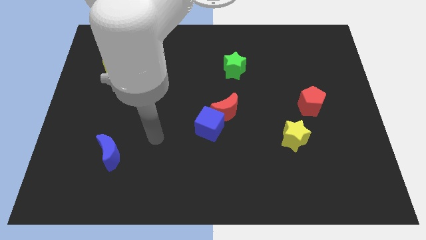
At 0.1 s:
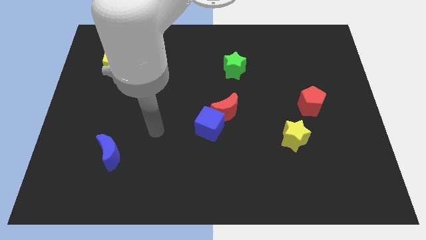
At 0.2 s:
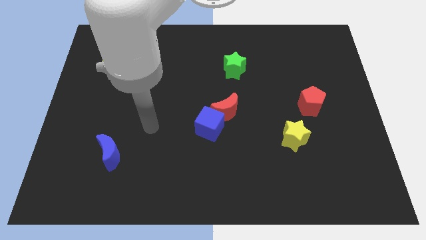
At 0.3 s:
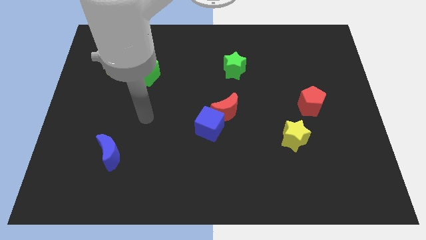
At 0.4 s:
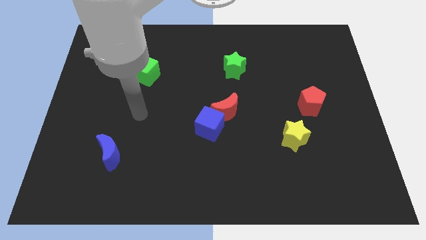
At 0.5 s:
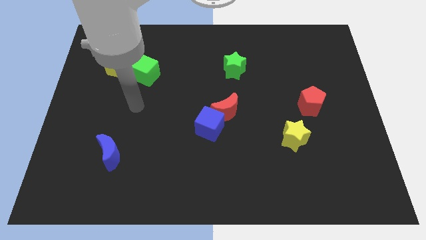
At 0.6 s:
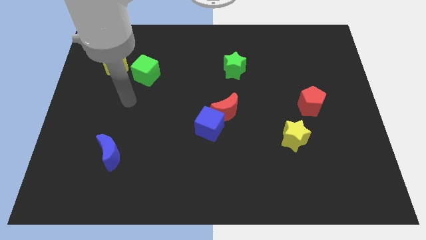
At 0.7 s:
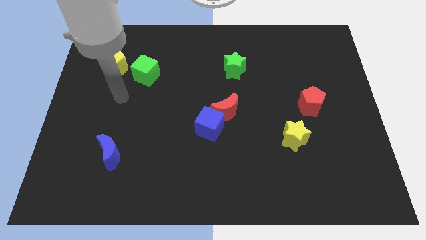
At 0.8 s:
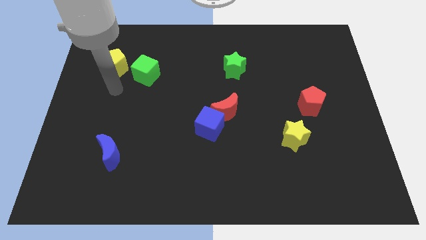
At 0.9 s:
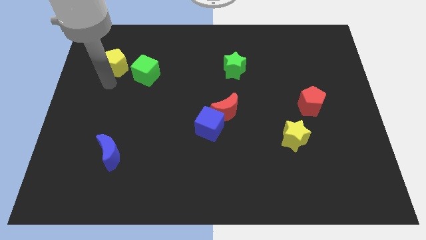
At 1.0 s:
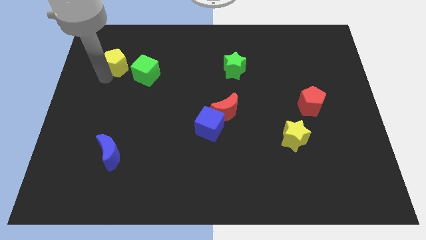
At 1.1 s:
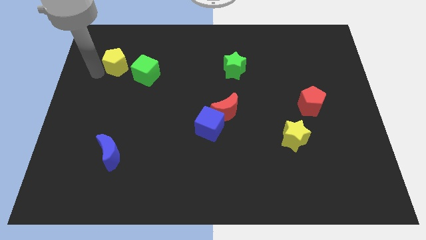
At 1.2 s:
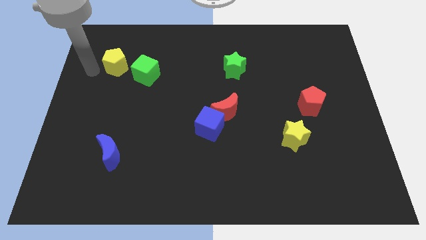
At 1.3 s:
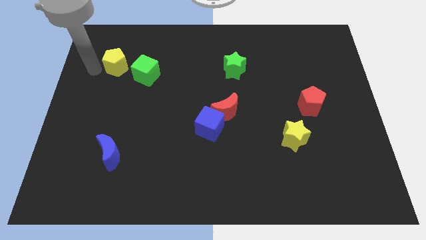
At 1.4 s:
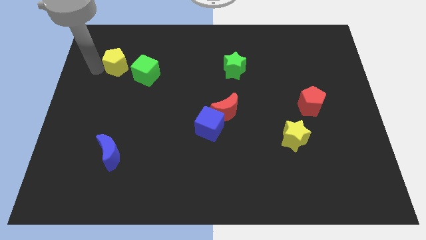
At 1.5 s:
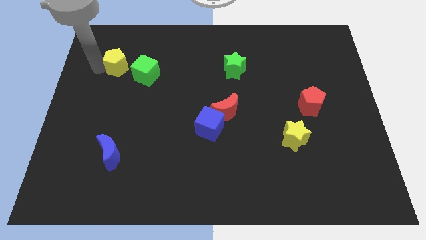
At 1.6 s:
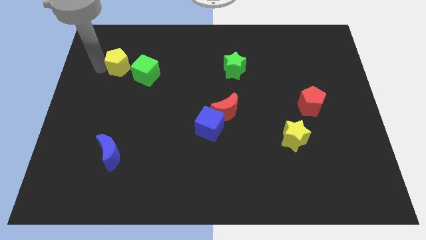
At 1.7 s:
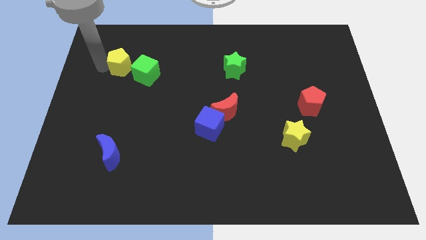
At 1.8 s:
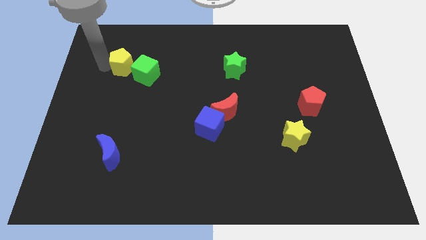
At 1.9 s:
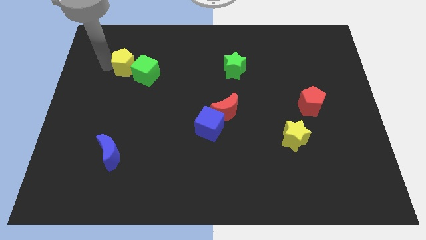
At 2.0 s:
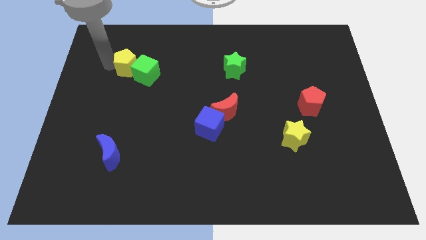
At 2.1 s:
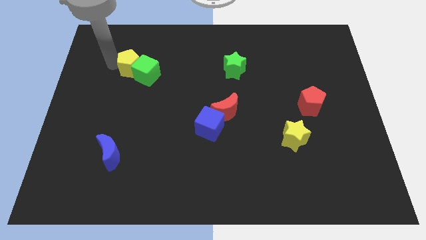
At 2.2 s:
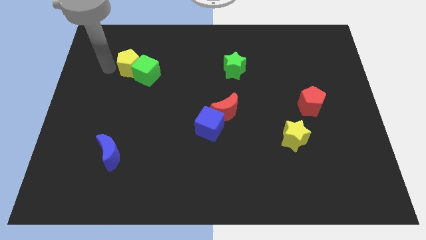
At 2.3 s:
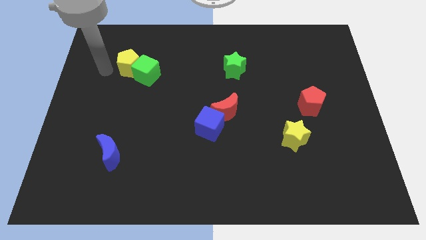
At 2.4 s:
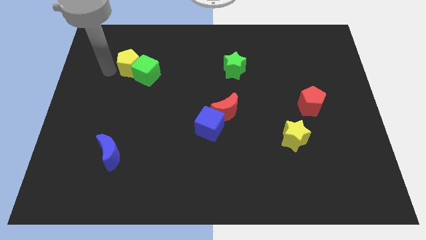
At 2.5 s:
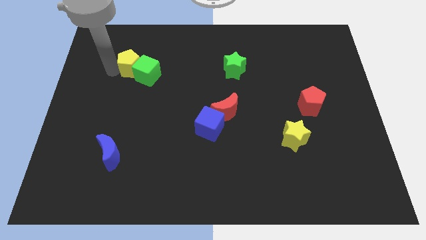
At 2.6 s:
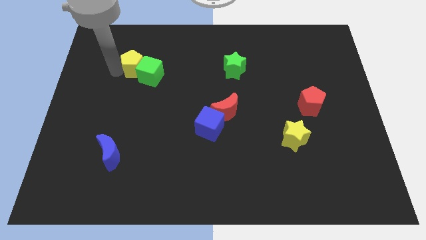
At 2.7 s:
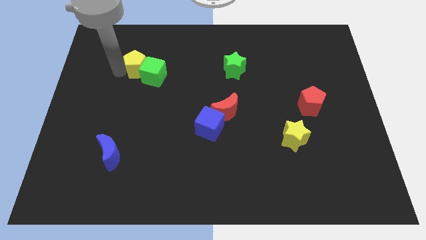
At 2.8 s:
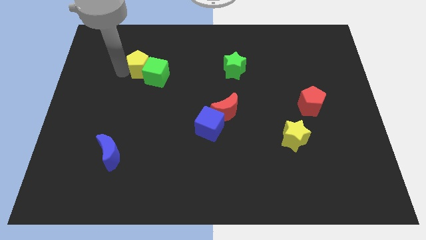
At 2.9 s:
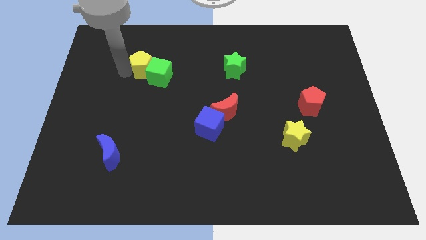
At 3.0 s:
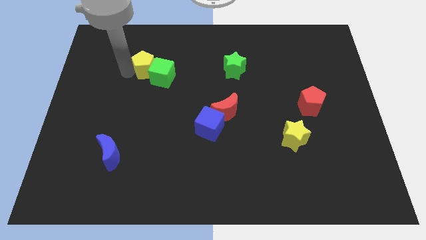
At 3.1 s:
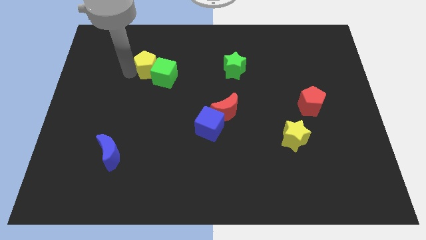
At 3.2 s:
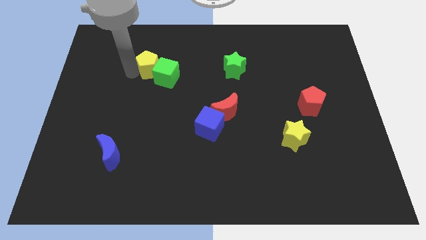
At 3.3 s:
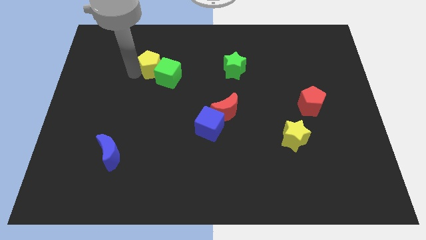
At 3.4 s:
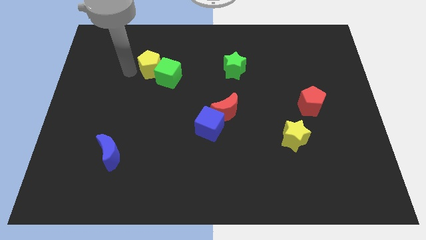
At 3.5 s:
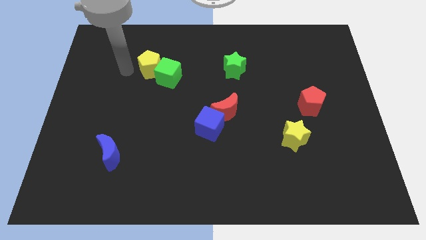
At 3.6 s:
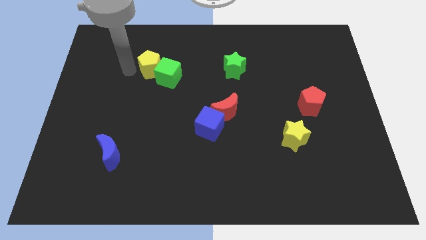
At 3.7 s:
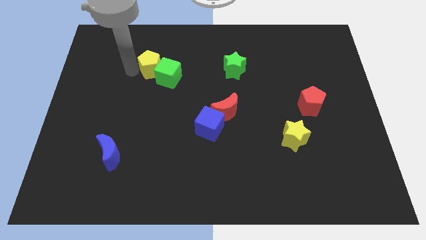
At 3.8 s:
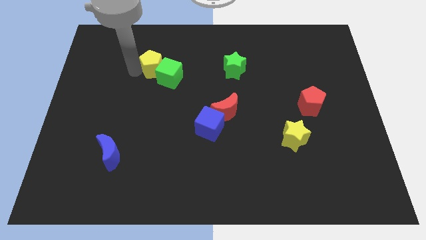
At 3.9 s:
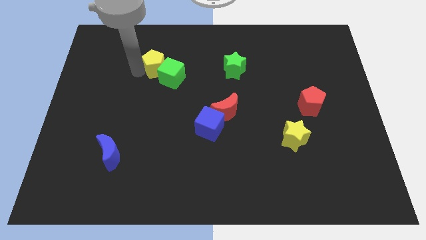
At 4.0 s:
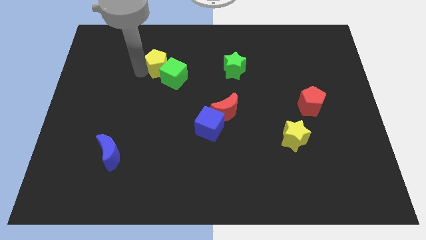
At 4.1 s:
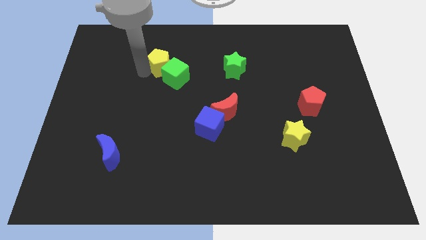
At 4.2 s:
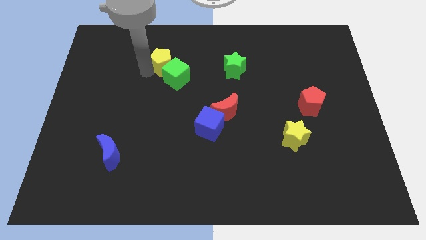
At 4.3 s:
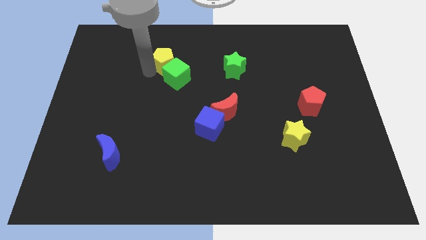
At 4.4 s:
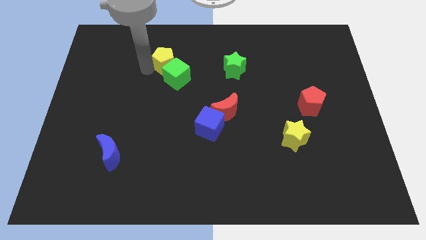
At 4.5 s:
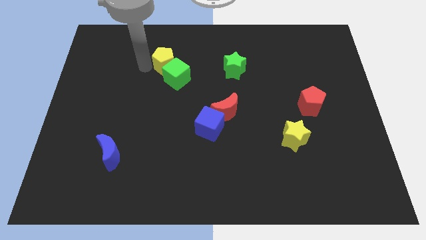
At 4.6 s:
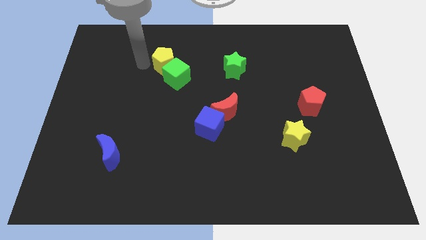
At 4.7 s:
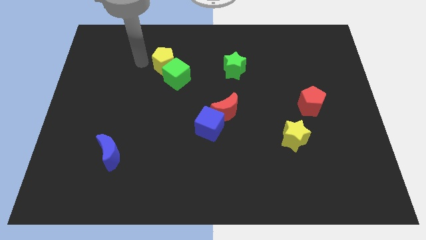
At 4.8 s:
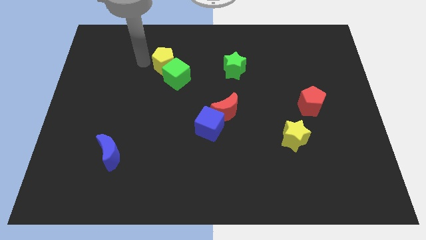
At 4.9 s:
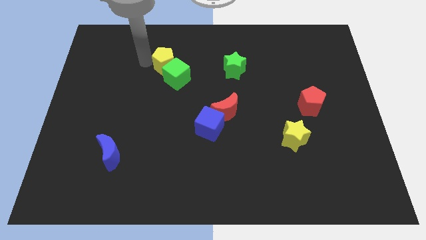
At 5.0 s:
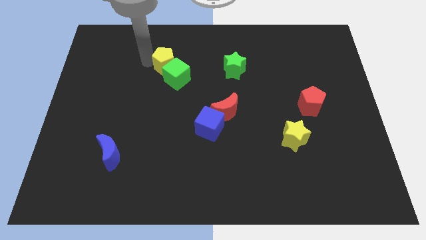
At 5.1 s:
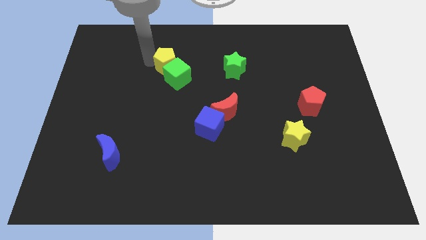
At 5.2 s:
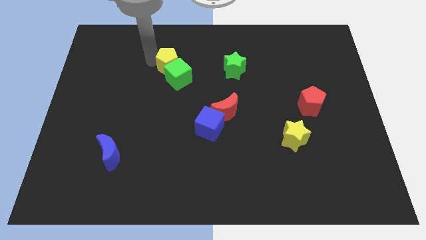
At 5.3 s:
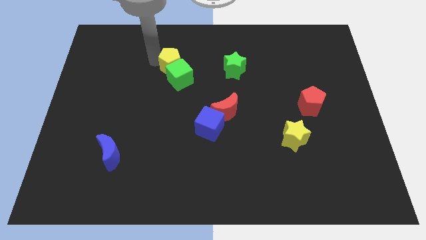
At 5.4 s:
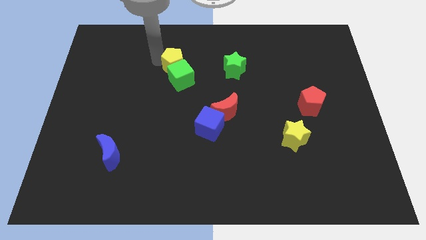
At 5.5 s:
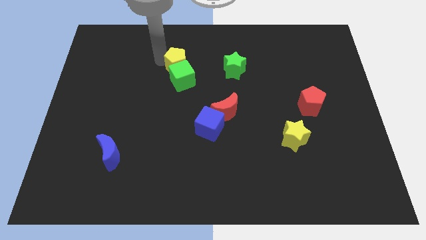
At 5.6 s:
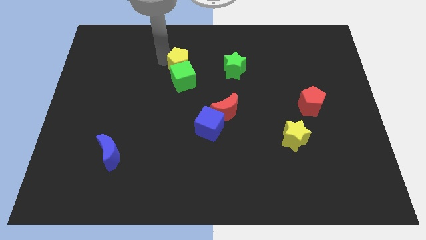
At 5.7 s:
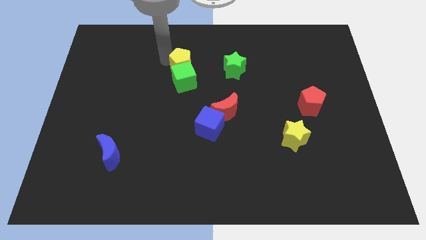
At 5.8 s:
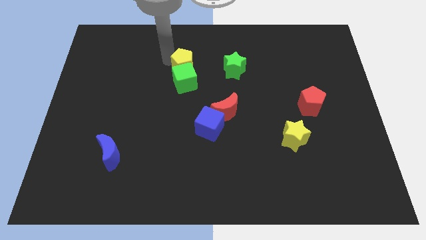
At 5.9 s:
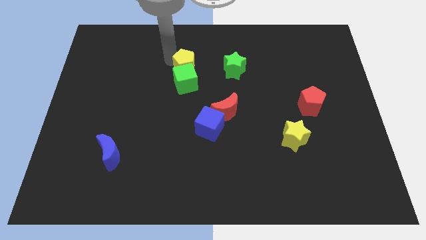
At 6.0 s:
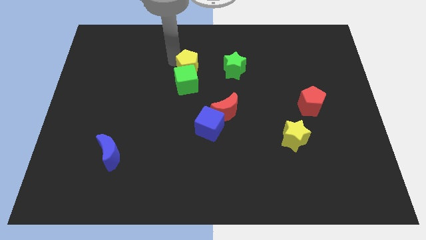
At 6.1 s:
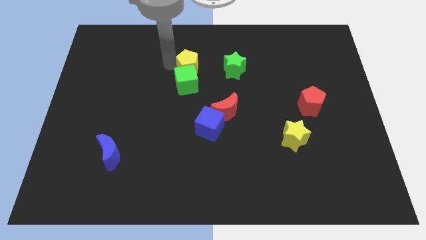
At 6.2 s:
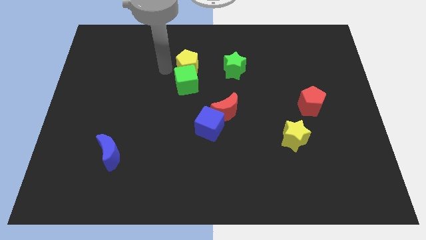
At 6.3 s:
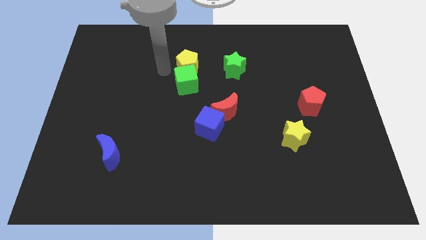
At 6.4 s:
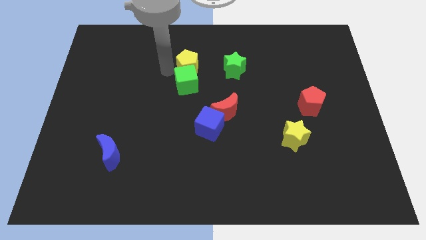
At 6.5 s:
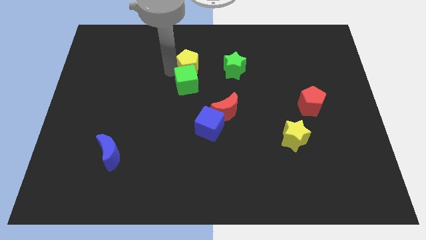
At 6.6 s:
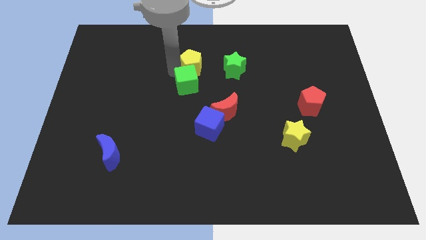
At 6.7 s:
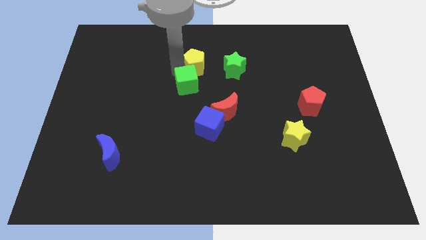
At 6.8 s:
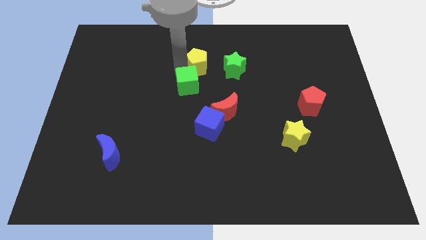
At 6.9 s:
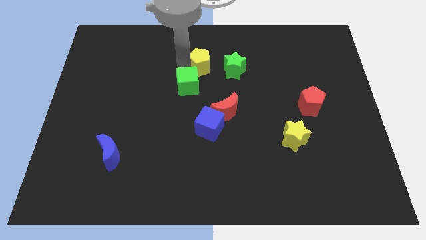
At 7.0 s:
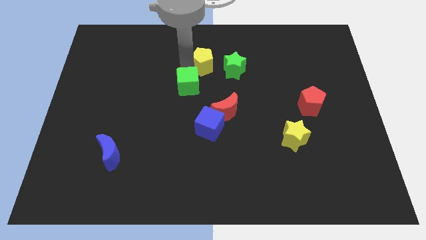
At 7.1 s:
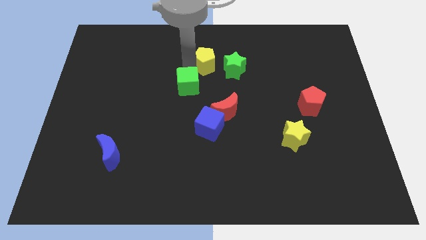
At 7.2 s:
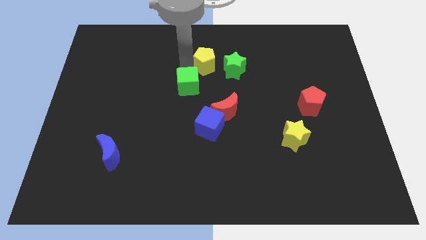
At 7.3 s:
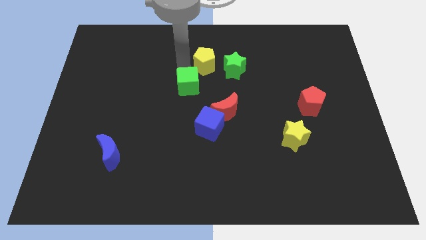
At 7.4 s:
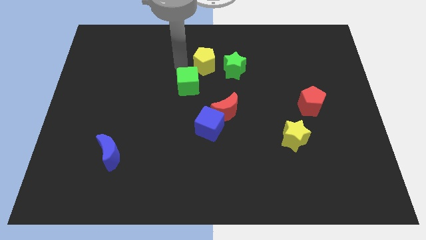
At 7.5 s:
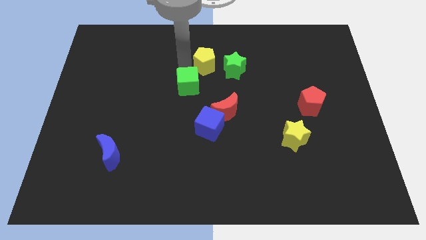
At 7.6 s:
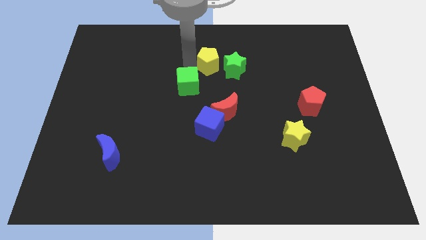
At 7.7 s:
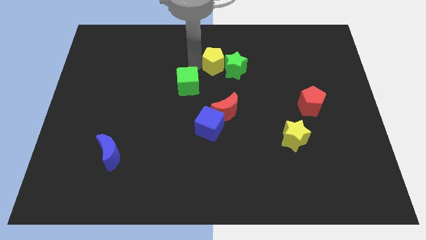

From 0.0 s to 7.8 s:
push the yellow pentagon next to the green star
